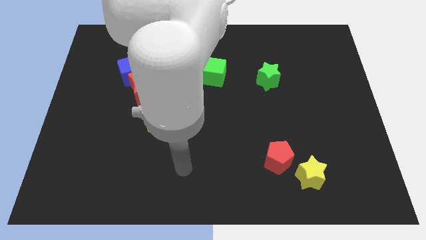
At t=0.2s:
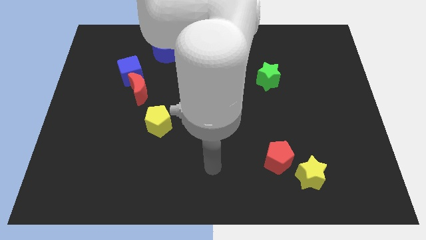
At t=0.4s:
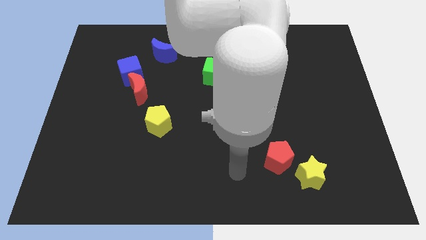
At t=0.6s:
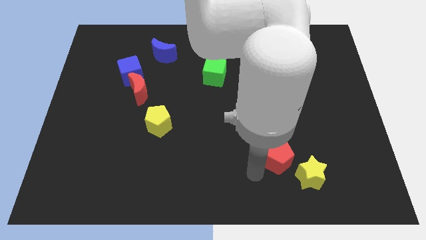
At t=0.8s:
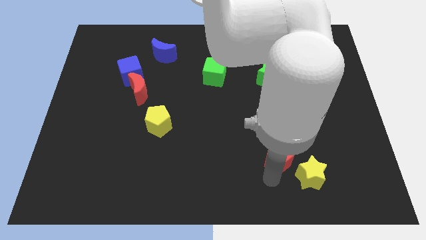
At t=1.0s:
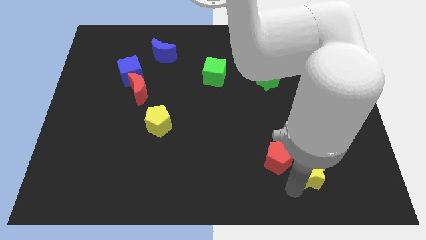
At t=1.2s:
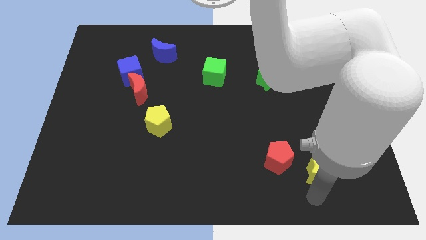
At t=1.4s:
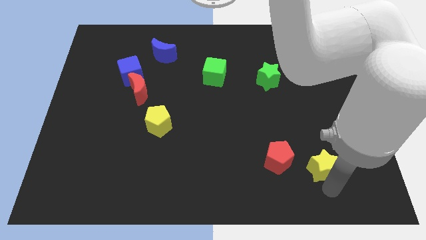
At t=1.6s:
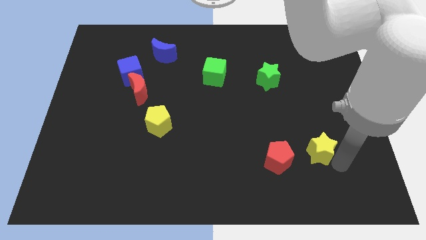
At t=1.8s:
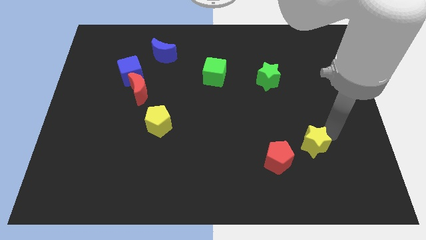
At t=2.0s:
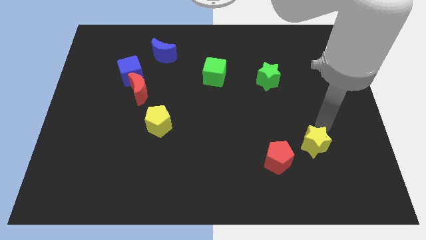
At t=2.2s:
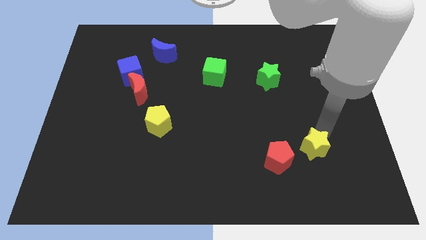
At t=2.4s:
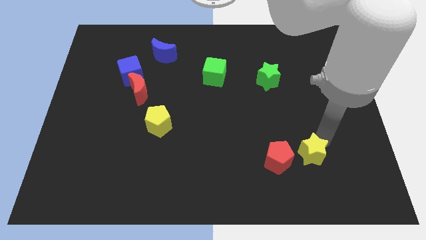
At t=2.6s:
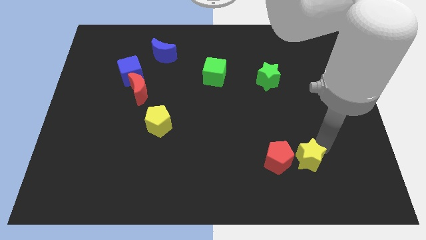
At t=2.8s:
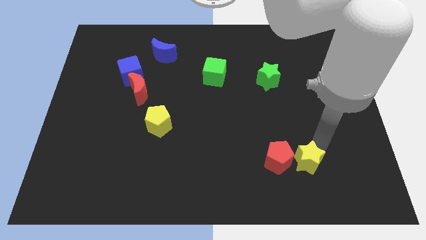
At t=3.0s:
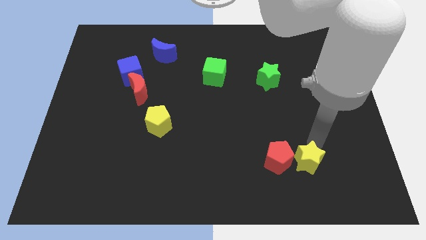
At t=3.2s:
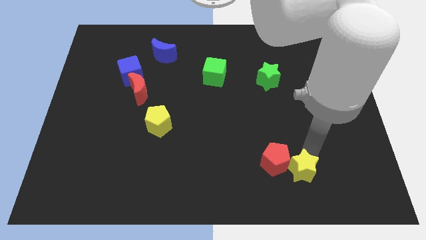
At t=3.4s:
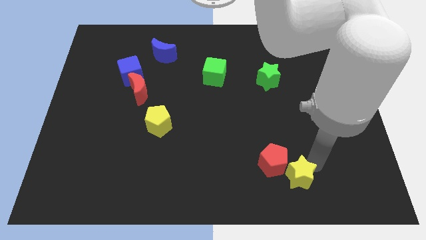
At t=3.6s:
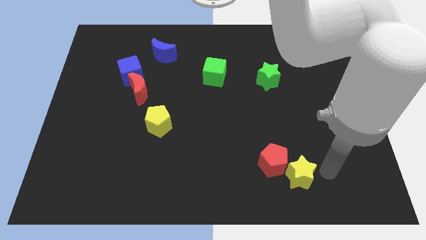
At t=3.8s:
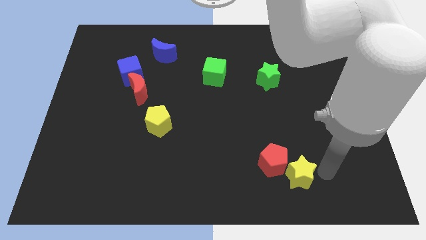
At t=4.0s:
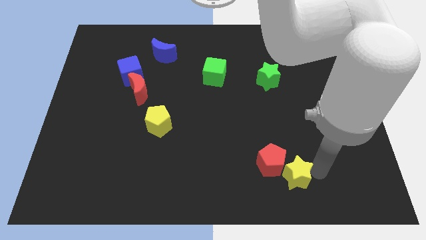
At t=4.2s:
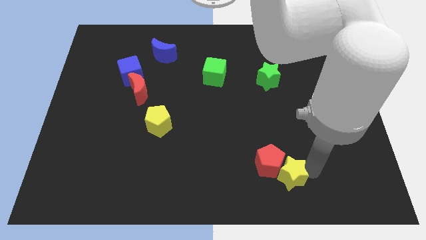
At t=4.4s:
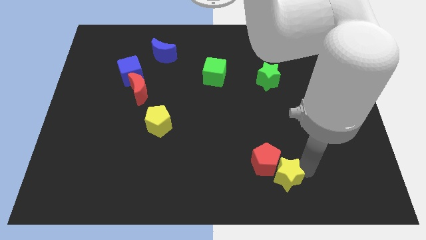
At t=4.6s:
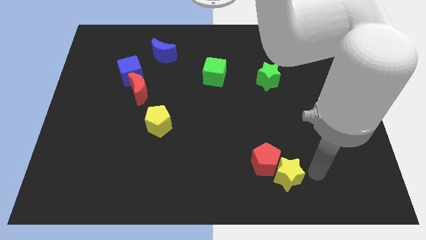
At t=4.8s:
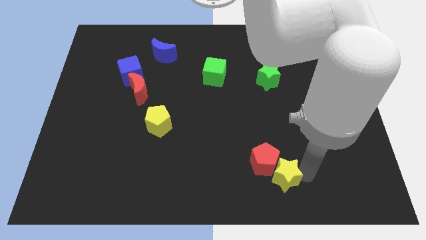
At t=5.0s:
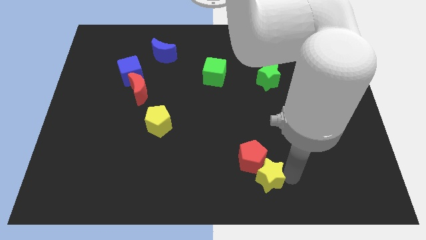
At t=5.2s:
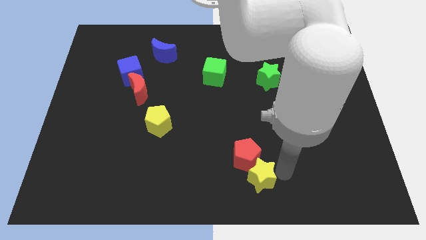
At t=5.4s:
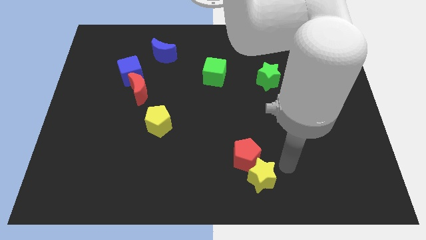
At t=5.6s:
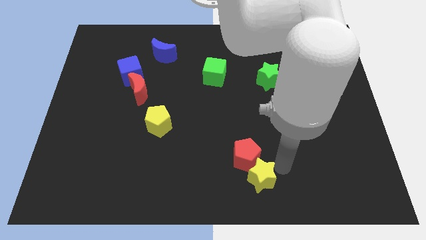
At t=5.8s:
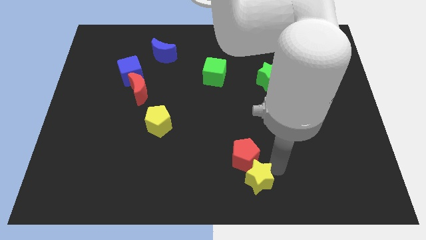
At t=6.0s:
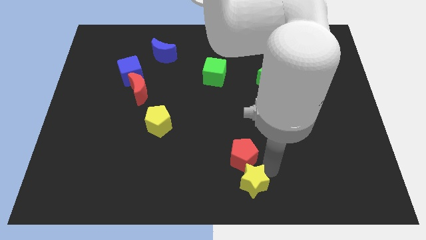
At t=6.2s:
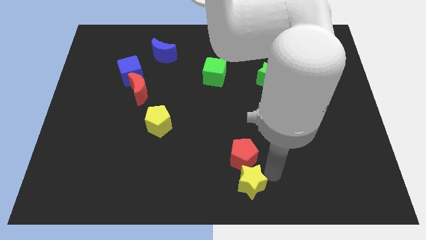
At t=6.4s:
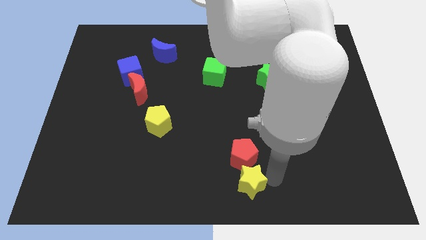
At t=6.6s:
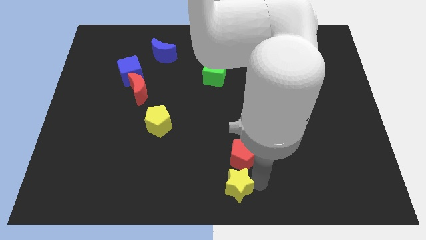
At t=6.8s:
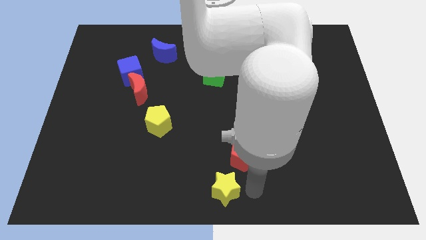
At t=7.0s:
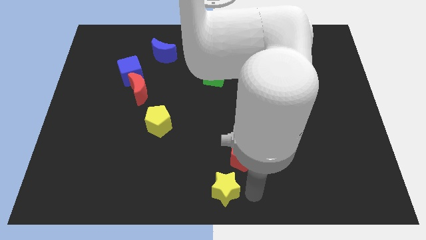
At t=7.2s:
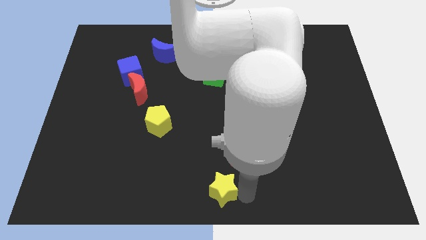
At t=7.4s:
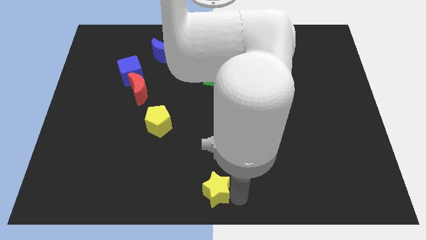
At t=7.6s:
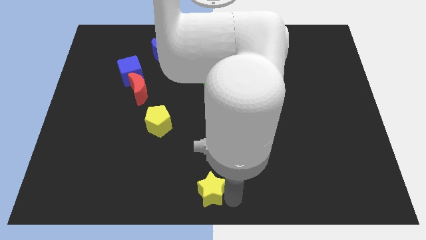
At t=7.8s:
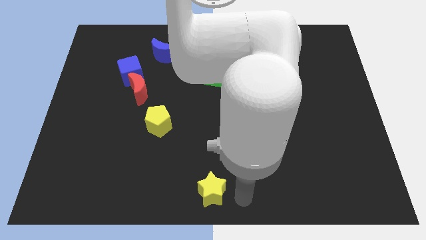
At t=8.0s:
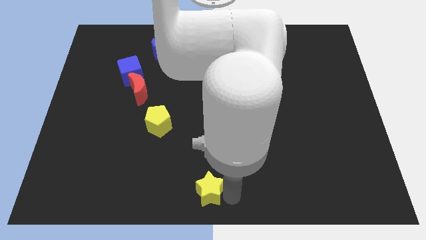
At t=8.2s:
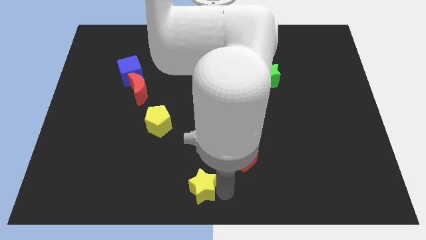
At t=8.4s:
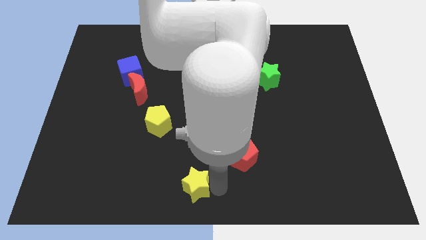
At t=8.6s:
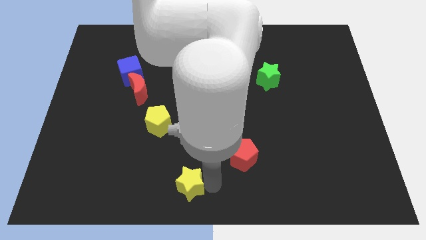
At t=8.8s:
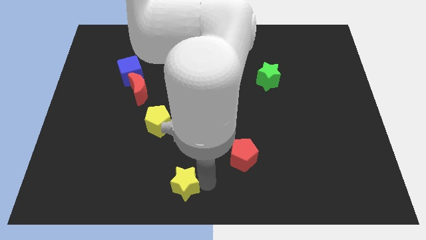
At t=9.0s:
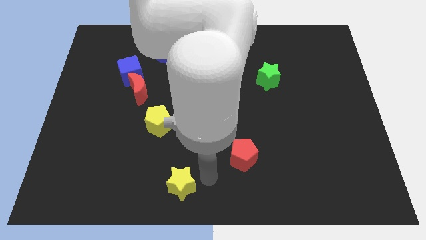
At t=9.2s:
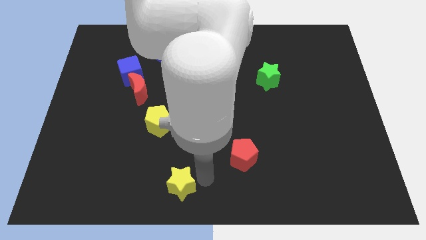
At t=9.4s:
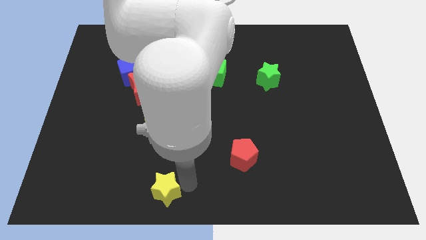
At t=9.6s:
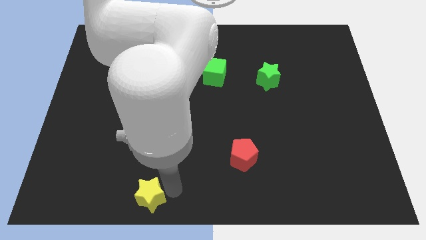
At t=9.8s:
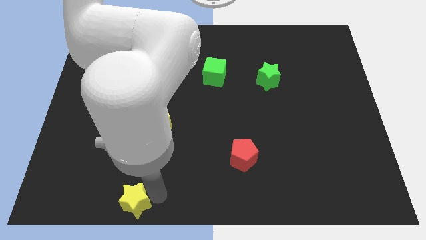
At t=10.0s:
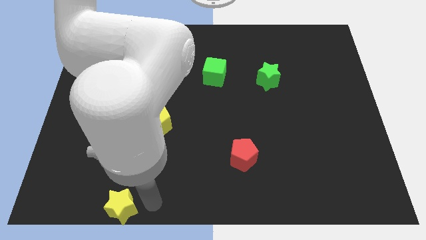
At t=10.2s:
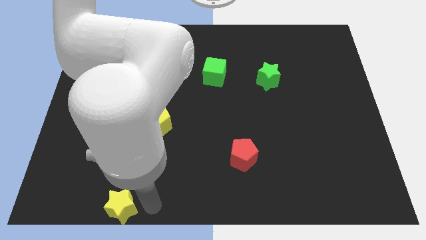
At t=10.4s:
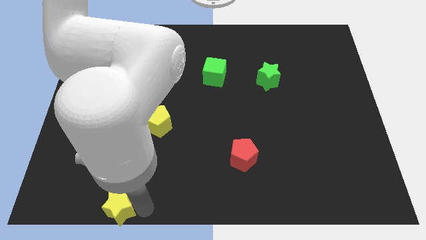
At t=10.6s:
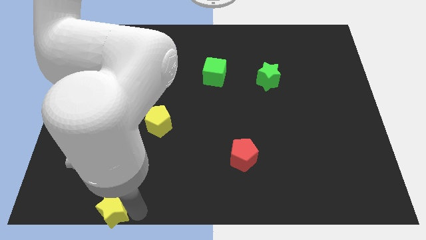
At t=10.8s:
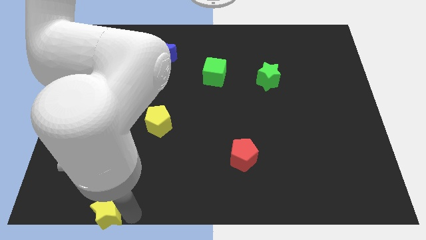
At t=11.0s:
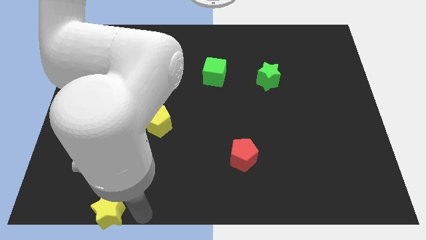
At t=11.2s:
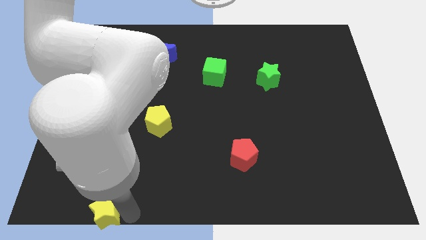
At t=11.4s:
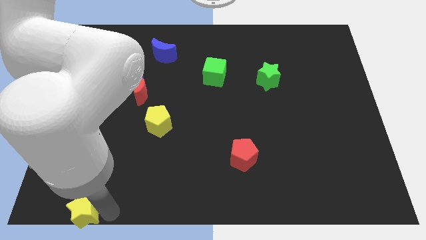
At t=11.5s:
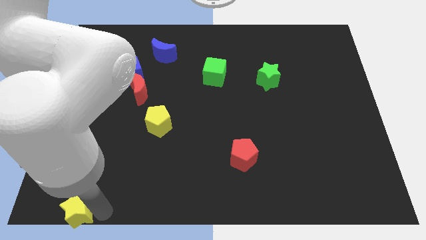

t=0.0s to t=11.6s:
slide the yellow star to the lower left corner
